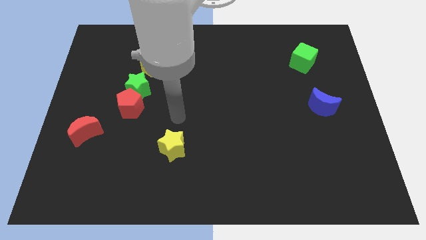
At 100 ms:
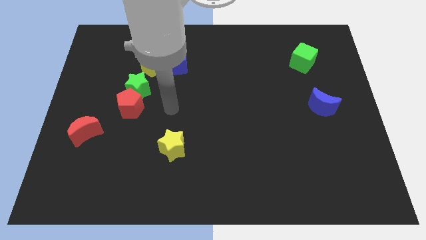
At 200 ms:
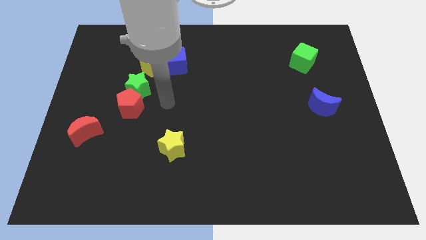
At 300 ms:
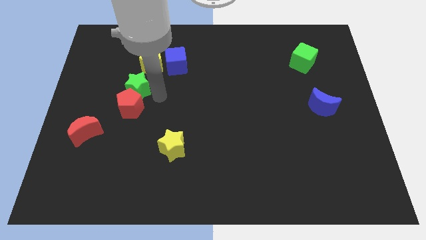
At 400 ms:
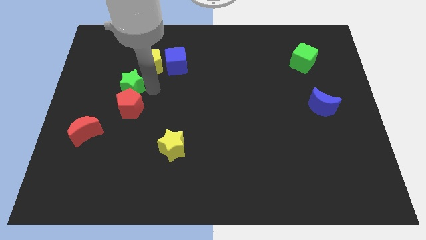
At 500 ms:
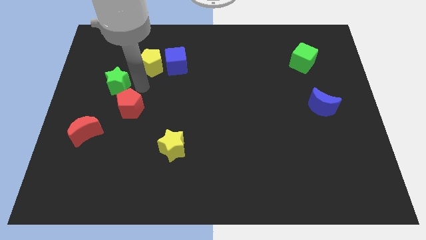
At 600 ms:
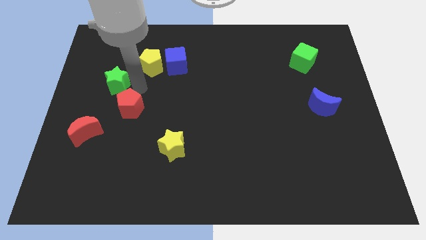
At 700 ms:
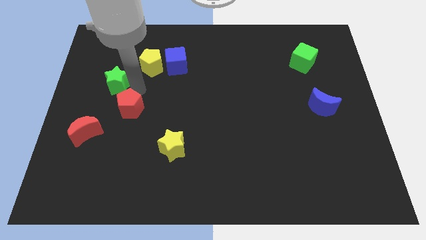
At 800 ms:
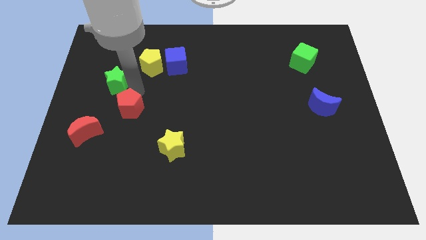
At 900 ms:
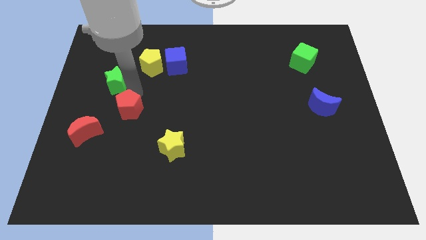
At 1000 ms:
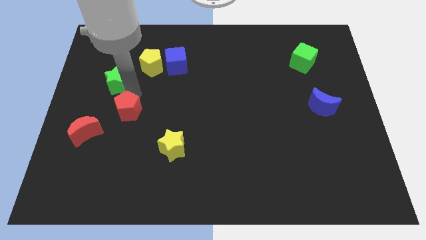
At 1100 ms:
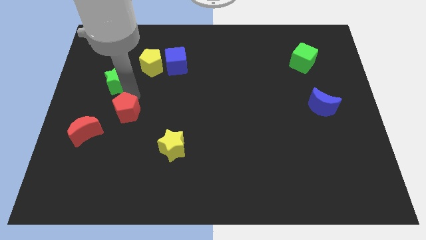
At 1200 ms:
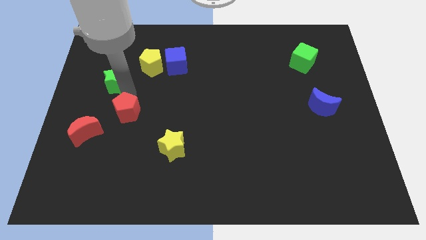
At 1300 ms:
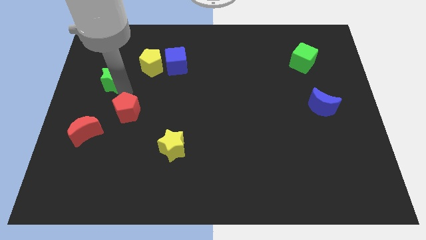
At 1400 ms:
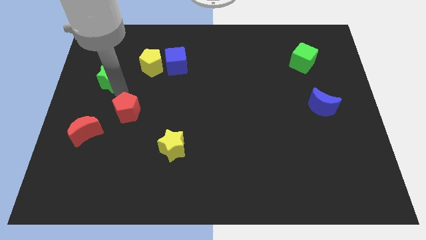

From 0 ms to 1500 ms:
separate the red pentagon from the green star

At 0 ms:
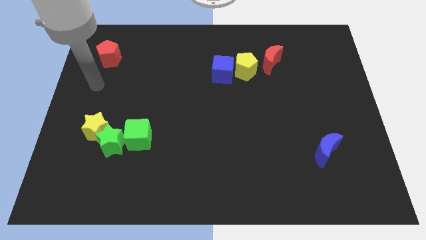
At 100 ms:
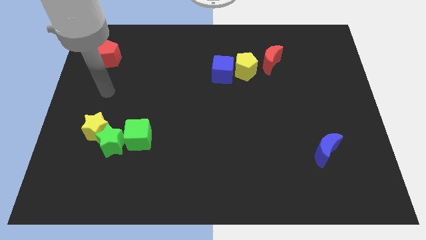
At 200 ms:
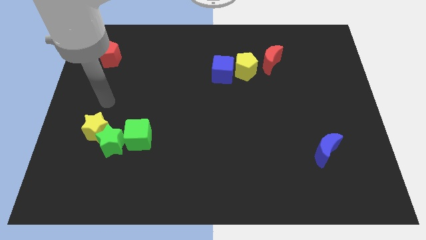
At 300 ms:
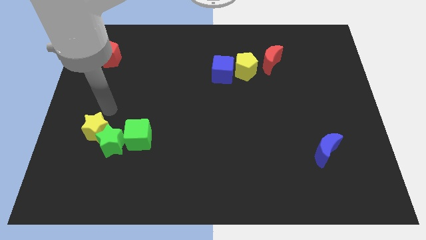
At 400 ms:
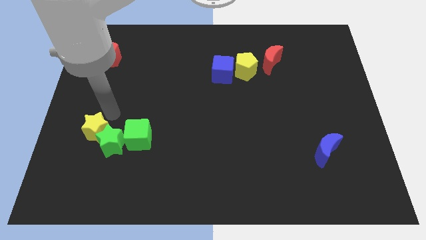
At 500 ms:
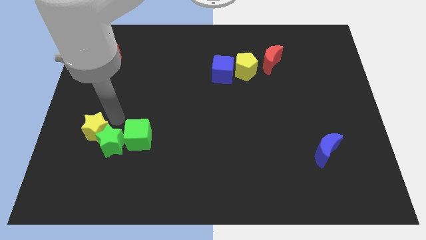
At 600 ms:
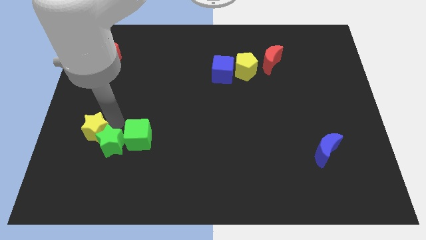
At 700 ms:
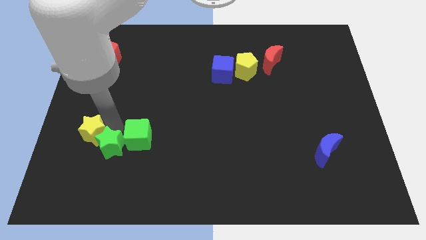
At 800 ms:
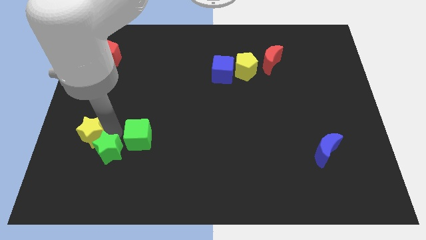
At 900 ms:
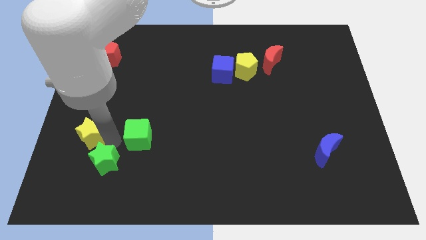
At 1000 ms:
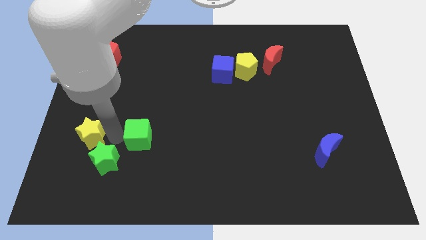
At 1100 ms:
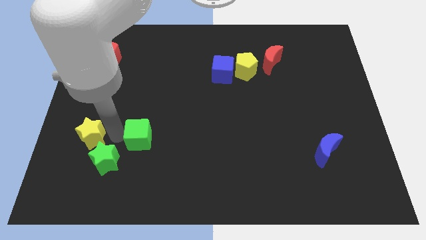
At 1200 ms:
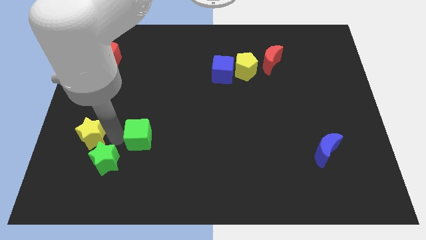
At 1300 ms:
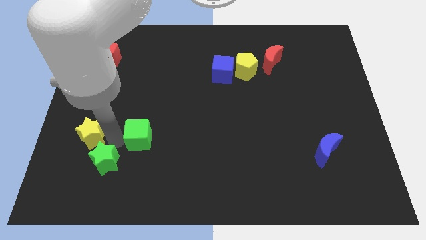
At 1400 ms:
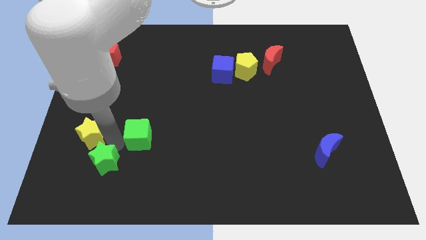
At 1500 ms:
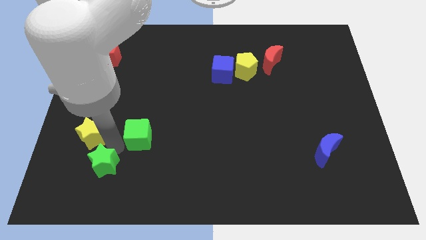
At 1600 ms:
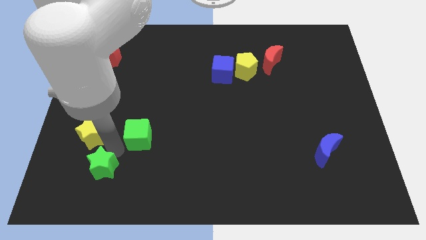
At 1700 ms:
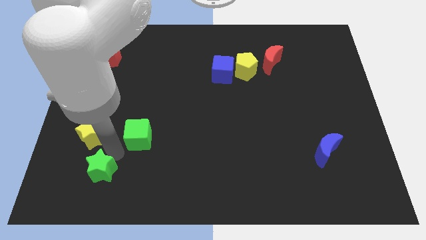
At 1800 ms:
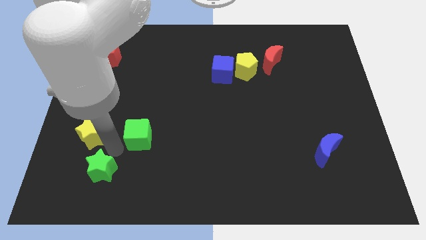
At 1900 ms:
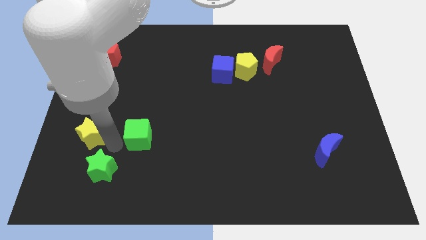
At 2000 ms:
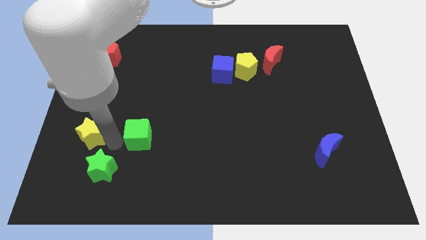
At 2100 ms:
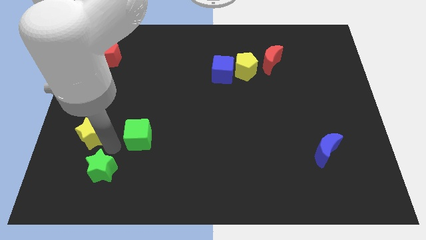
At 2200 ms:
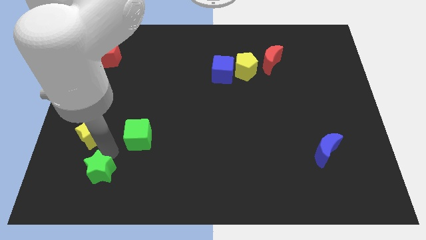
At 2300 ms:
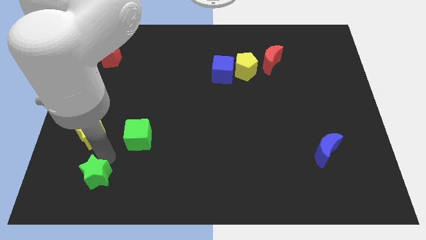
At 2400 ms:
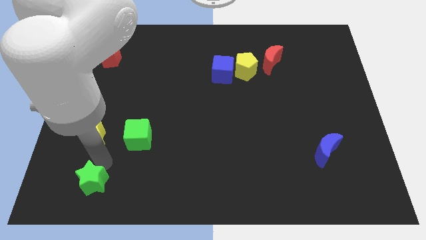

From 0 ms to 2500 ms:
move the green star away from the yellow star and green cube

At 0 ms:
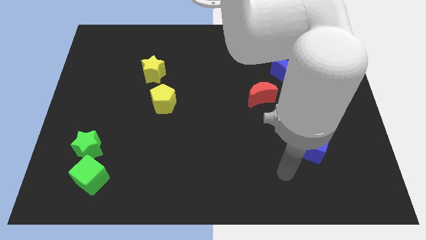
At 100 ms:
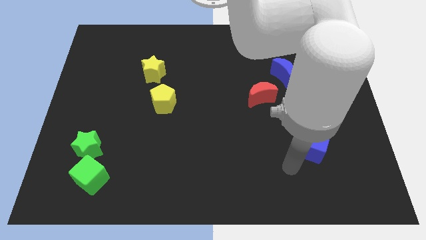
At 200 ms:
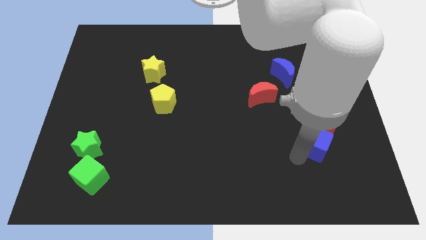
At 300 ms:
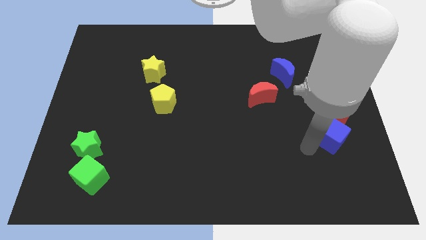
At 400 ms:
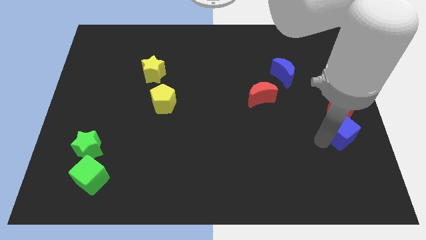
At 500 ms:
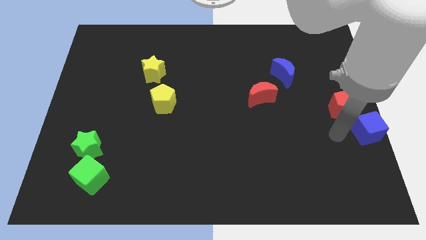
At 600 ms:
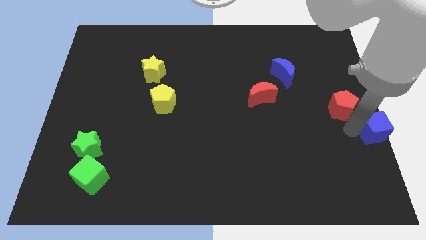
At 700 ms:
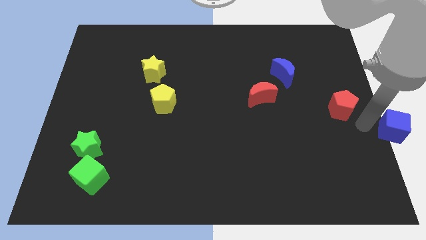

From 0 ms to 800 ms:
move the red pentagon away from the blue cube

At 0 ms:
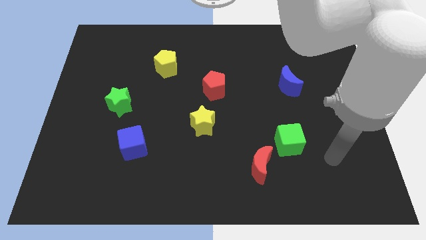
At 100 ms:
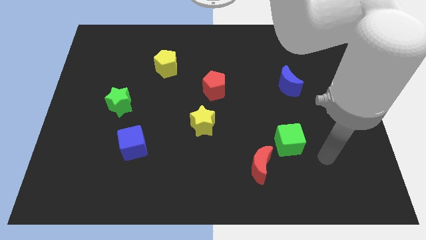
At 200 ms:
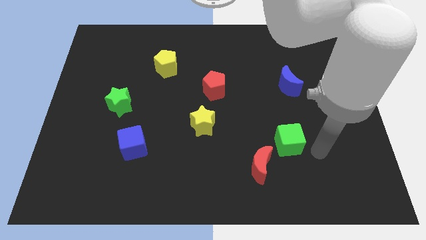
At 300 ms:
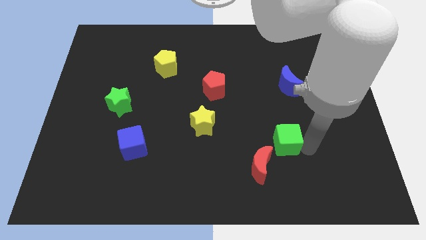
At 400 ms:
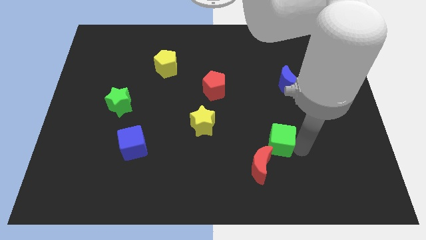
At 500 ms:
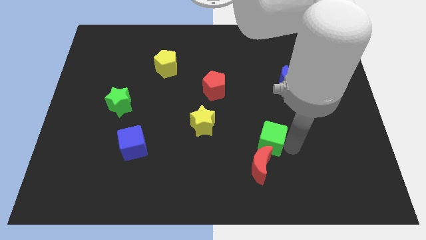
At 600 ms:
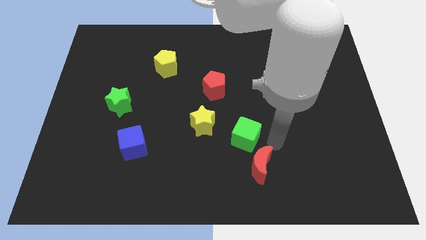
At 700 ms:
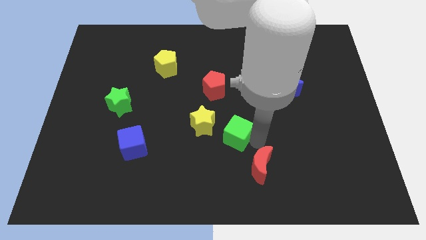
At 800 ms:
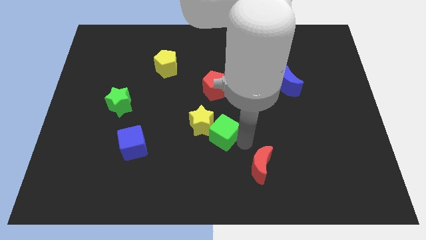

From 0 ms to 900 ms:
pull the red moon apart from the green cube

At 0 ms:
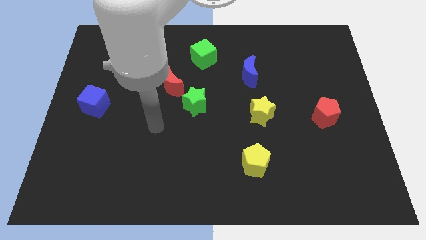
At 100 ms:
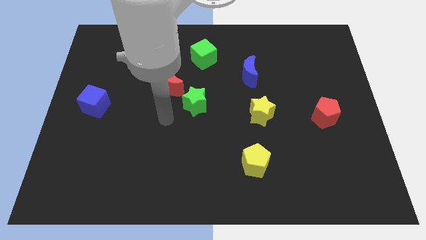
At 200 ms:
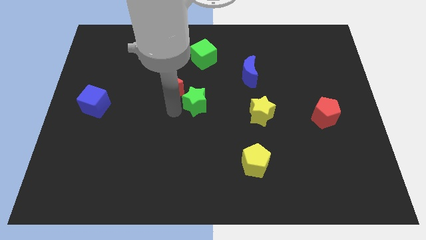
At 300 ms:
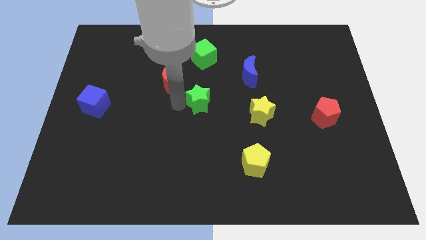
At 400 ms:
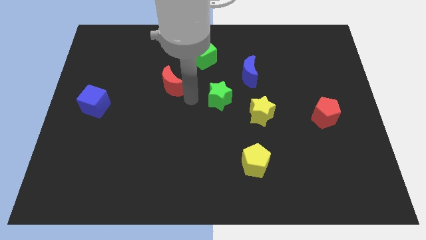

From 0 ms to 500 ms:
move the red moon away from the green star

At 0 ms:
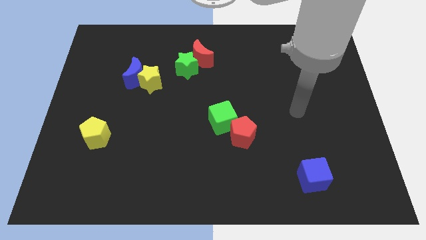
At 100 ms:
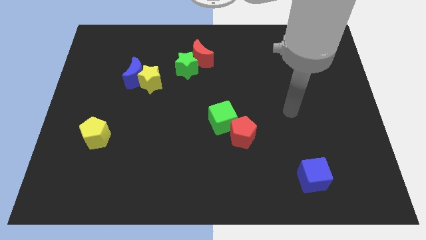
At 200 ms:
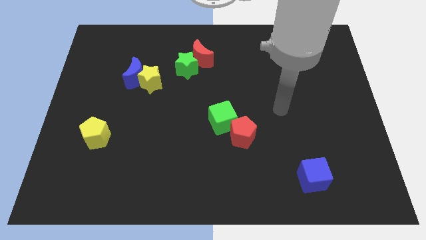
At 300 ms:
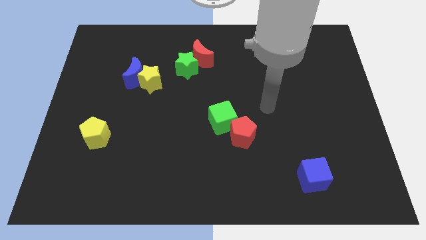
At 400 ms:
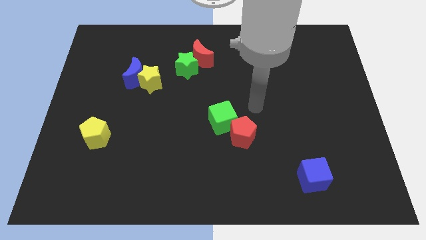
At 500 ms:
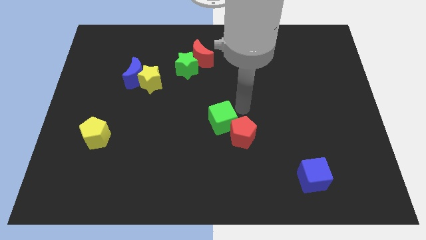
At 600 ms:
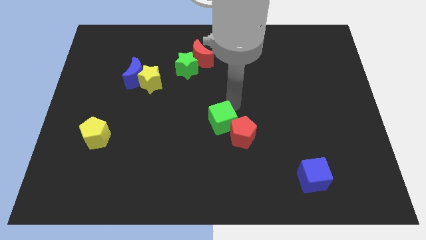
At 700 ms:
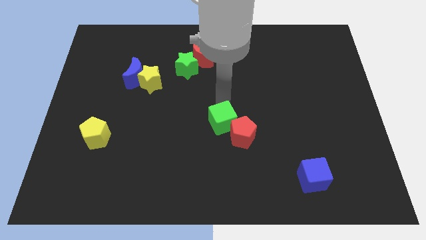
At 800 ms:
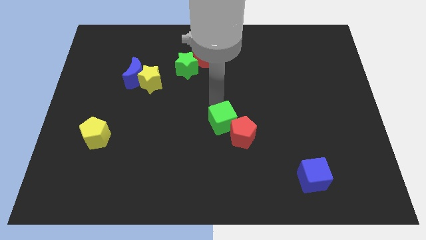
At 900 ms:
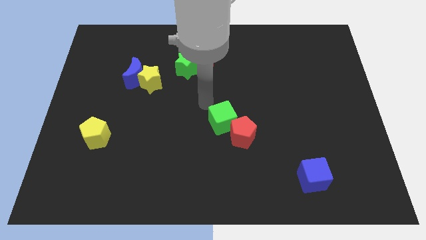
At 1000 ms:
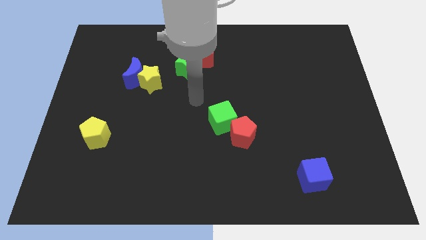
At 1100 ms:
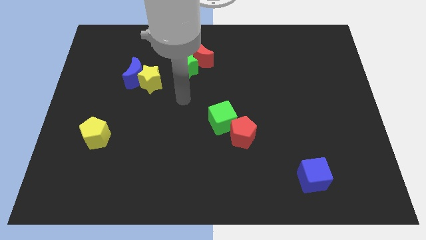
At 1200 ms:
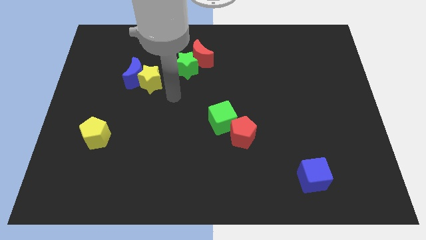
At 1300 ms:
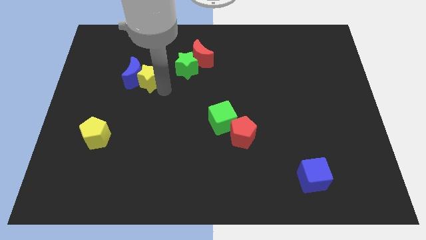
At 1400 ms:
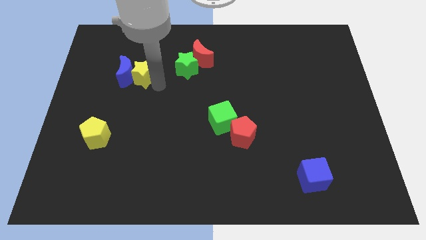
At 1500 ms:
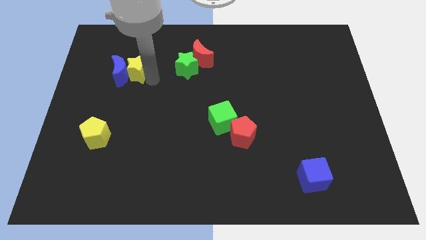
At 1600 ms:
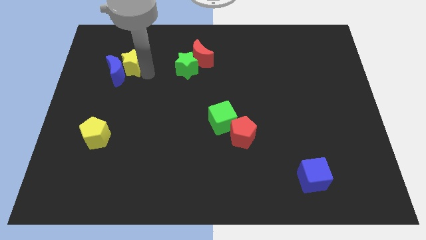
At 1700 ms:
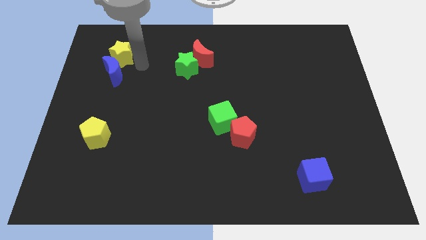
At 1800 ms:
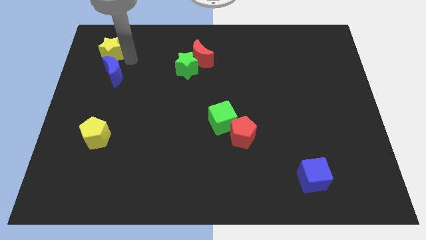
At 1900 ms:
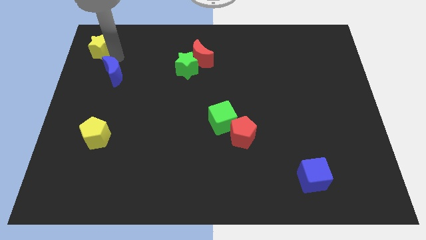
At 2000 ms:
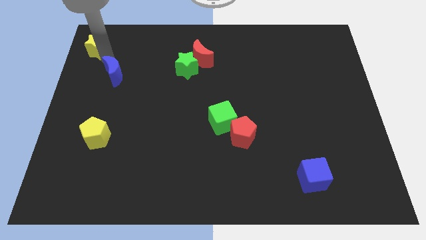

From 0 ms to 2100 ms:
pull the blue moon apart from the yellow star

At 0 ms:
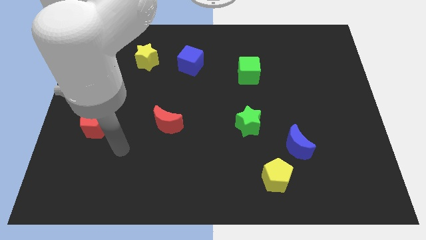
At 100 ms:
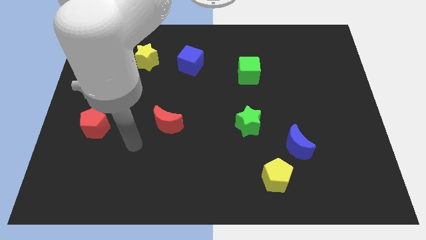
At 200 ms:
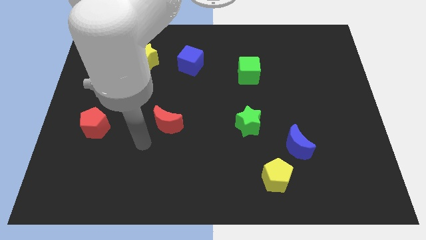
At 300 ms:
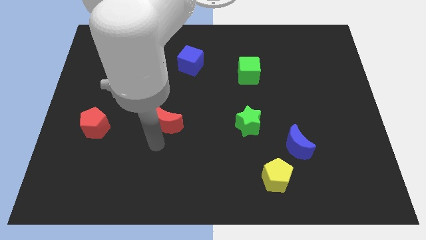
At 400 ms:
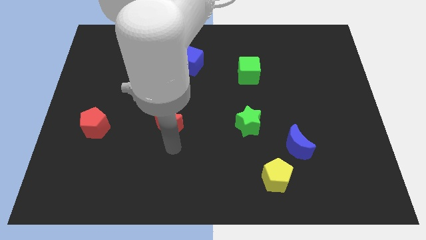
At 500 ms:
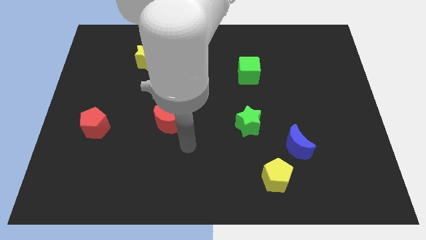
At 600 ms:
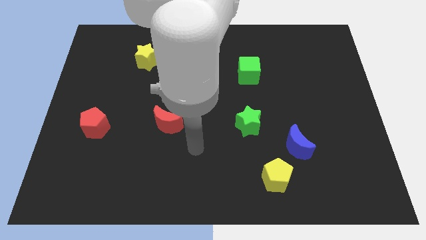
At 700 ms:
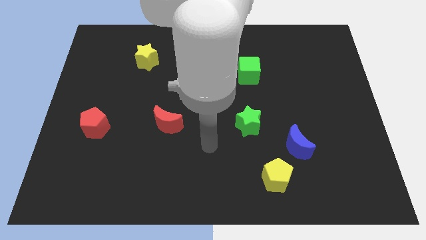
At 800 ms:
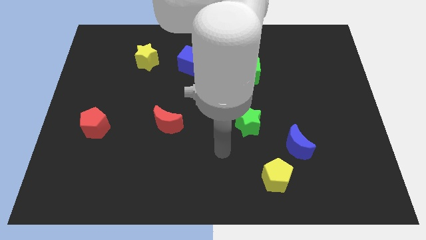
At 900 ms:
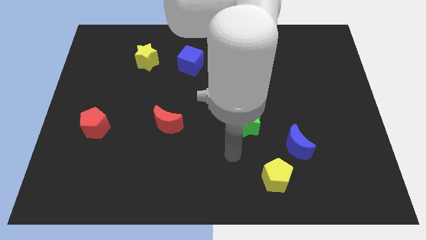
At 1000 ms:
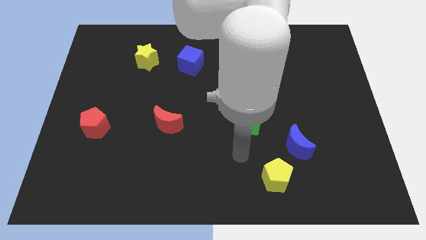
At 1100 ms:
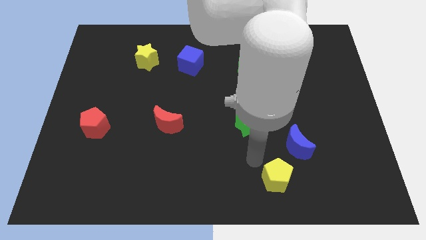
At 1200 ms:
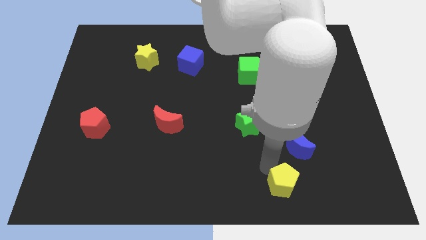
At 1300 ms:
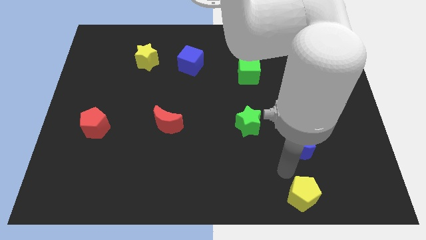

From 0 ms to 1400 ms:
pull the blue moon apart from the yellow pentagon
